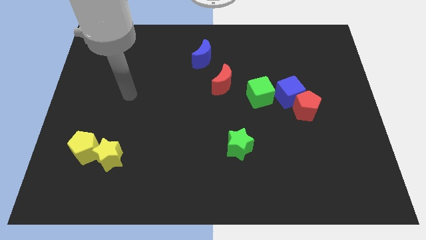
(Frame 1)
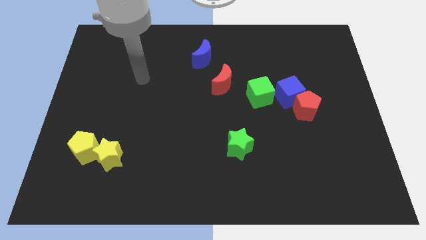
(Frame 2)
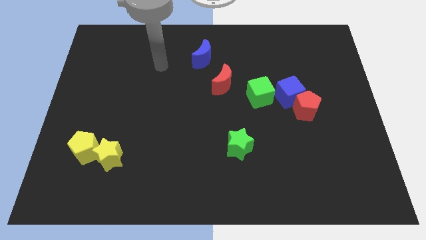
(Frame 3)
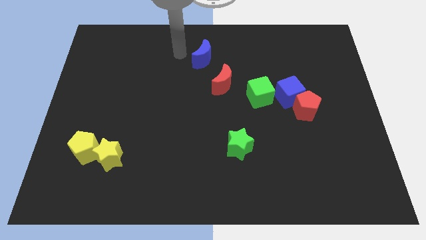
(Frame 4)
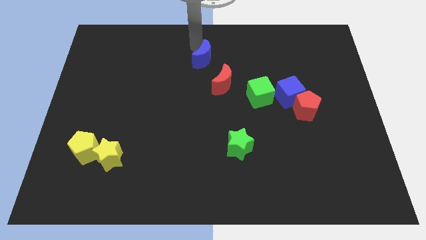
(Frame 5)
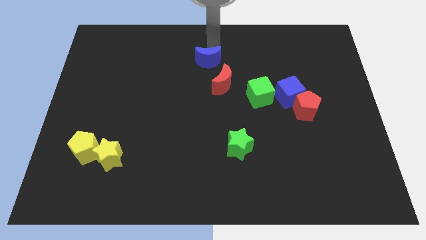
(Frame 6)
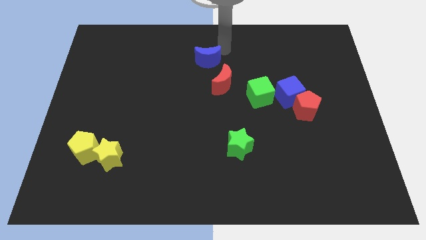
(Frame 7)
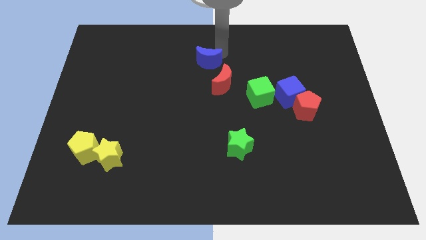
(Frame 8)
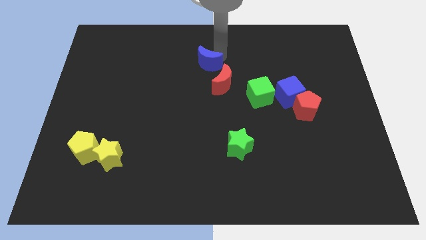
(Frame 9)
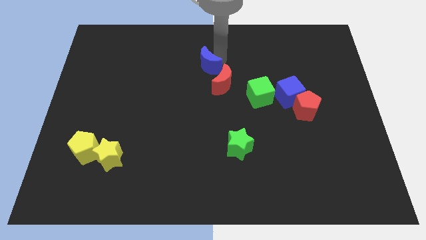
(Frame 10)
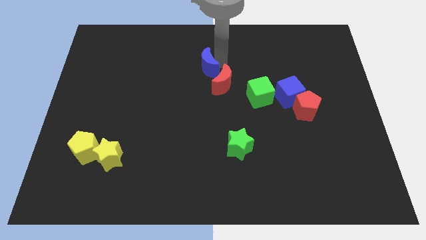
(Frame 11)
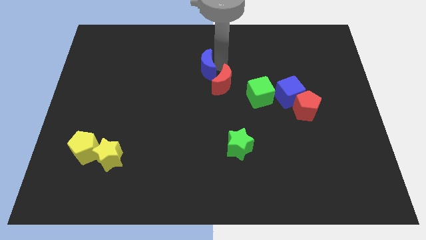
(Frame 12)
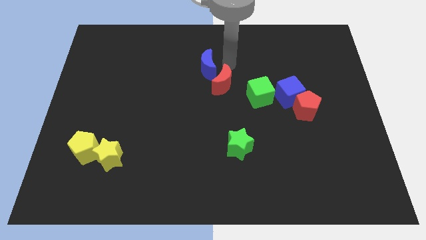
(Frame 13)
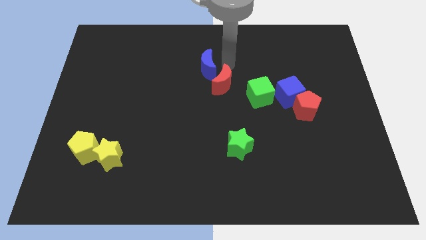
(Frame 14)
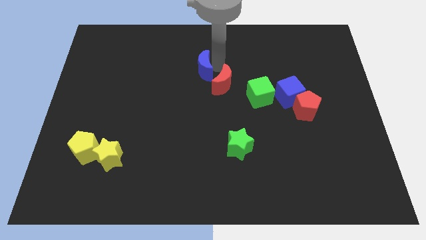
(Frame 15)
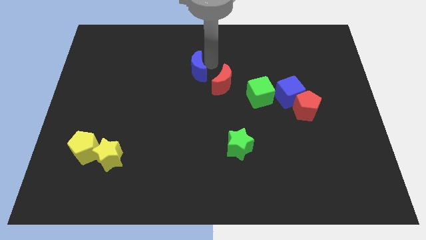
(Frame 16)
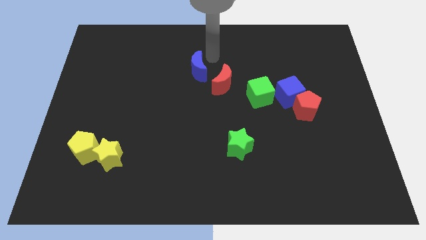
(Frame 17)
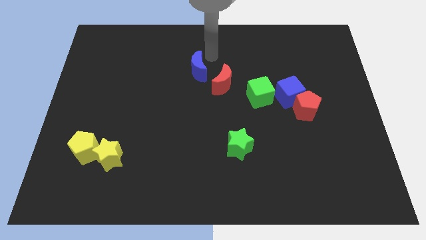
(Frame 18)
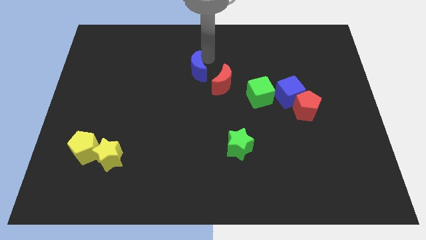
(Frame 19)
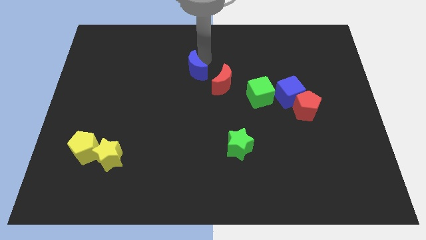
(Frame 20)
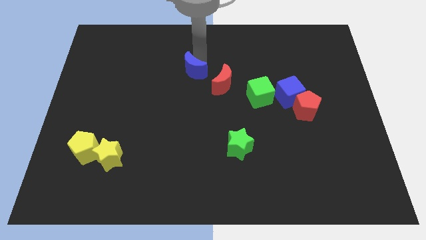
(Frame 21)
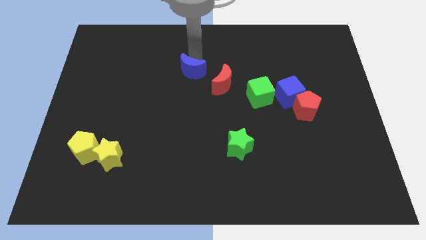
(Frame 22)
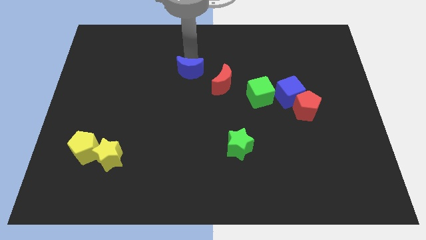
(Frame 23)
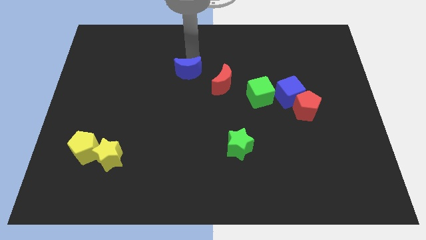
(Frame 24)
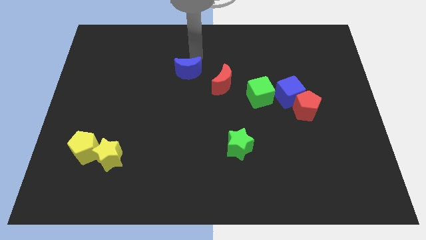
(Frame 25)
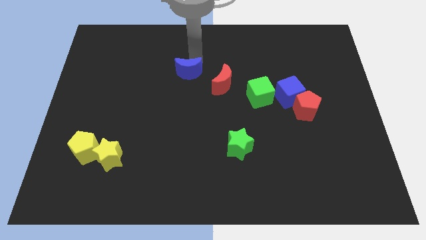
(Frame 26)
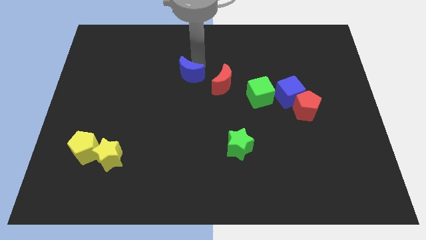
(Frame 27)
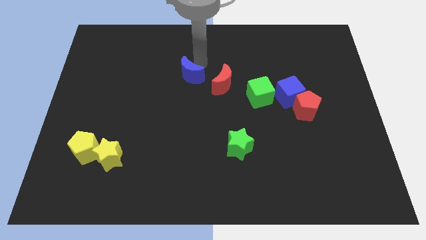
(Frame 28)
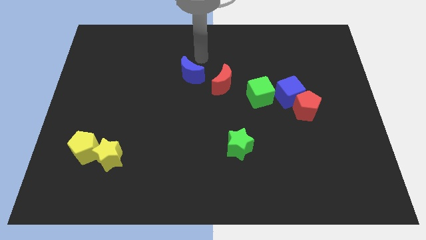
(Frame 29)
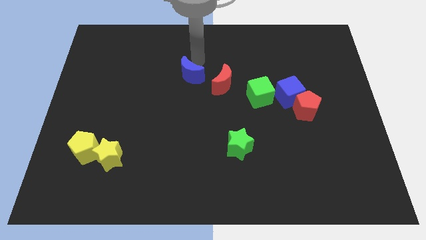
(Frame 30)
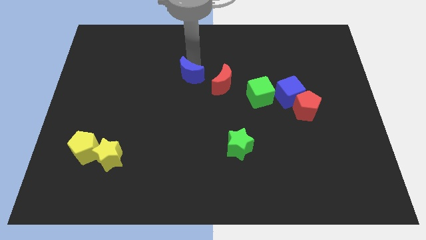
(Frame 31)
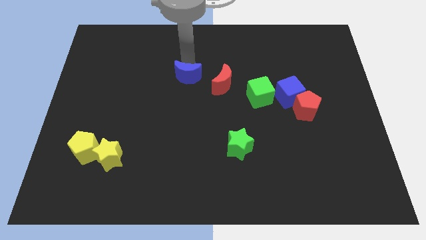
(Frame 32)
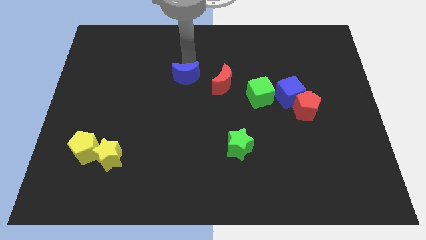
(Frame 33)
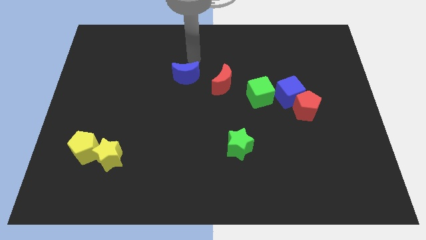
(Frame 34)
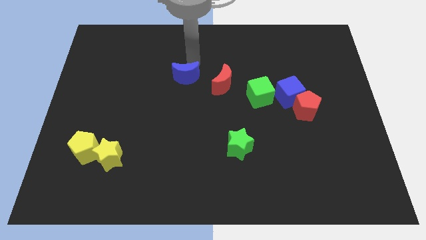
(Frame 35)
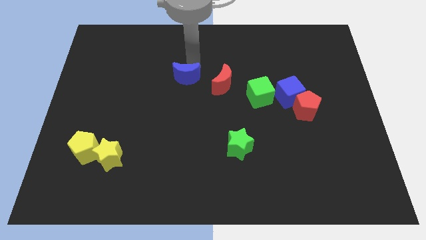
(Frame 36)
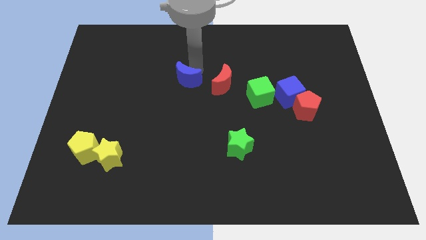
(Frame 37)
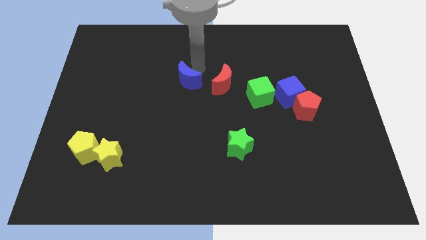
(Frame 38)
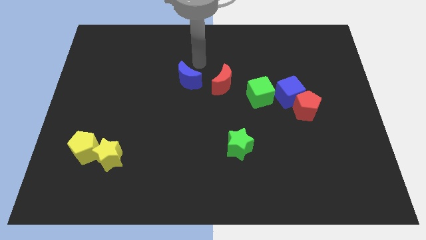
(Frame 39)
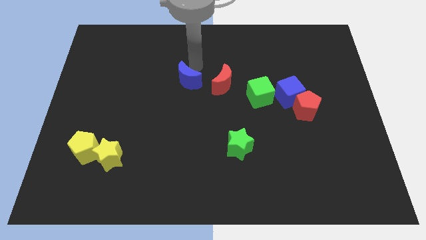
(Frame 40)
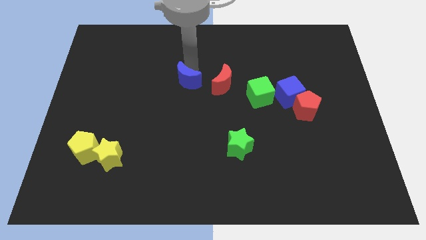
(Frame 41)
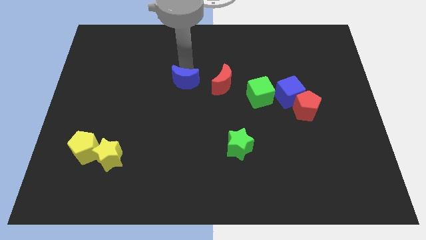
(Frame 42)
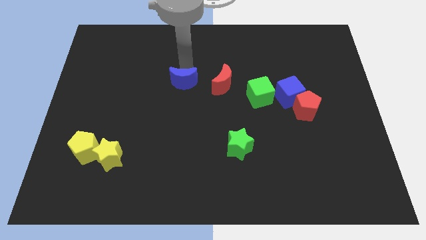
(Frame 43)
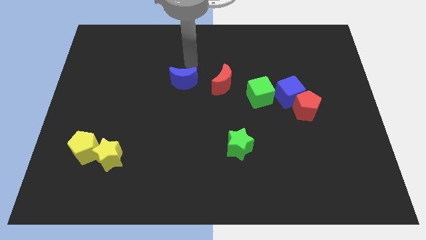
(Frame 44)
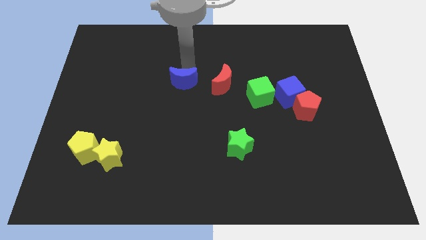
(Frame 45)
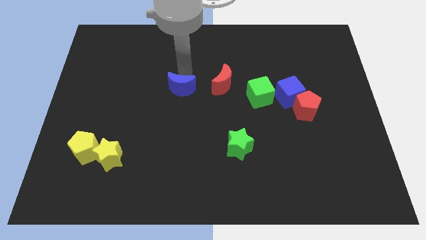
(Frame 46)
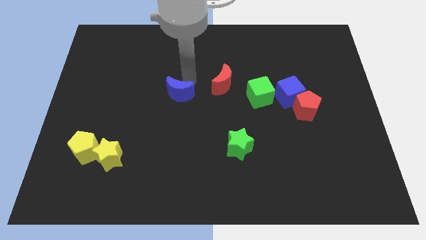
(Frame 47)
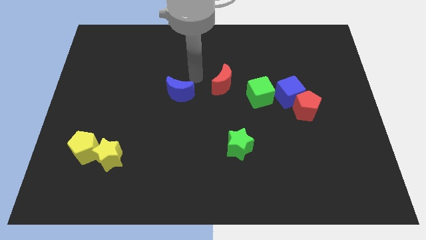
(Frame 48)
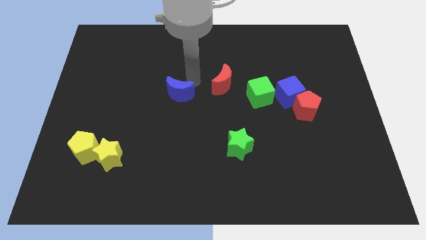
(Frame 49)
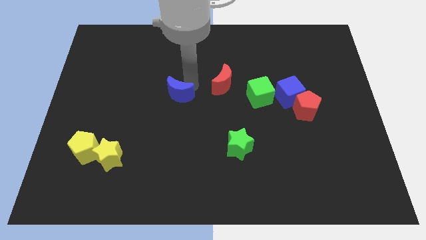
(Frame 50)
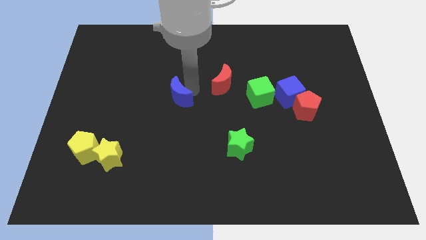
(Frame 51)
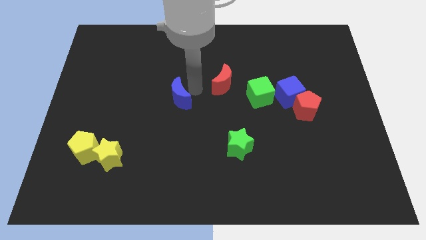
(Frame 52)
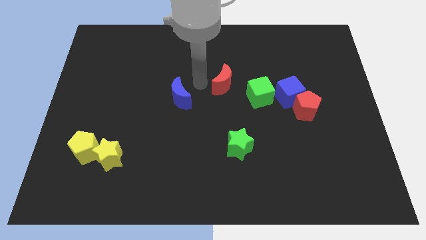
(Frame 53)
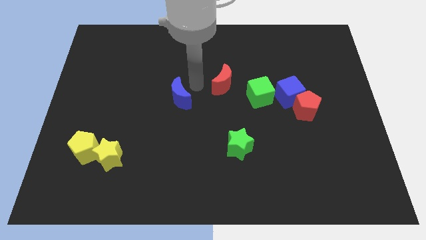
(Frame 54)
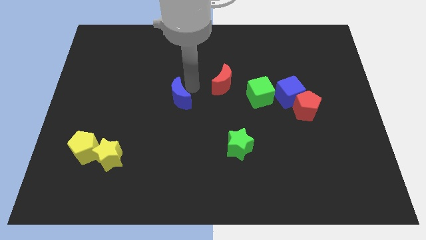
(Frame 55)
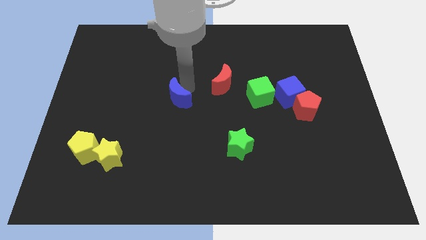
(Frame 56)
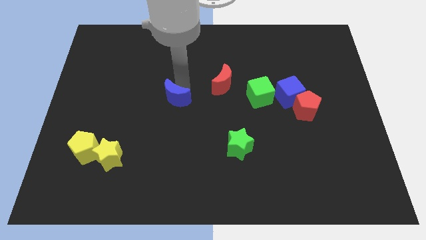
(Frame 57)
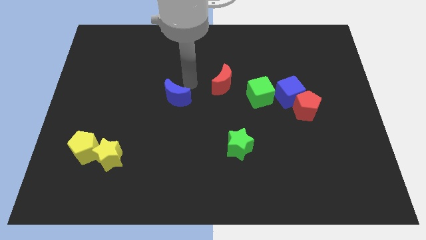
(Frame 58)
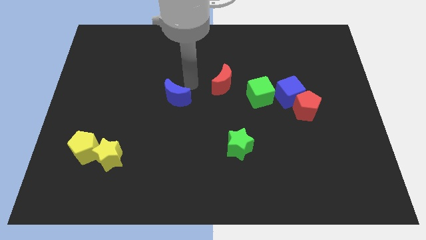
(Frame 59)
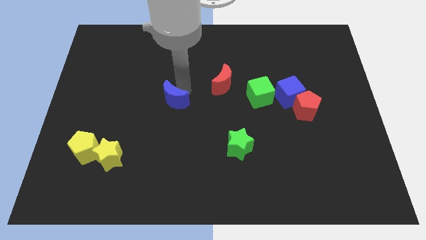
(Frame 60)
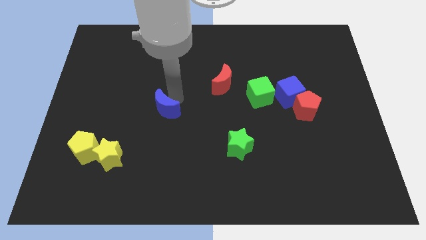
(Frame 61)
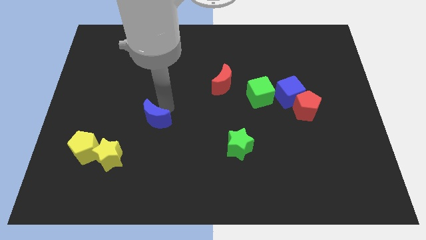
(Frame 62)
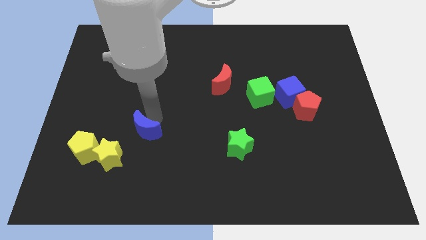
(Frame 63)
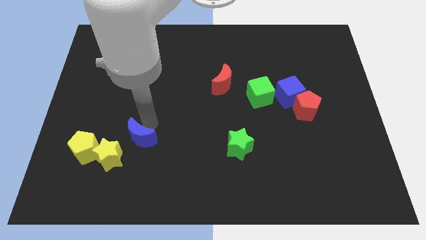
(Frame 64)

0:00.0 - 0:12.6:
push the blue moon to the right side of the yellow pentagon

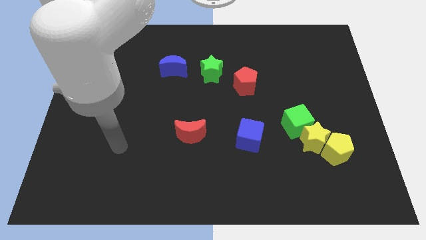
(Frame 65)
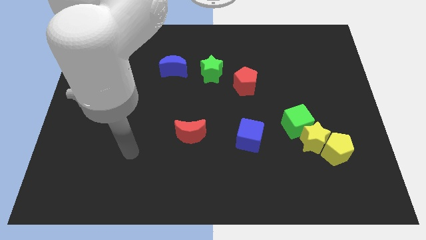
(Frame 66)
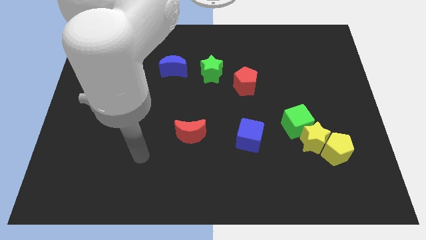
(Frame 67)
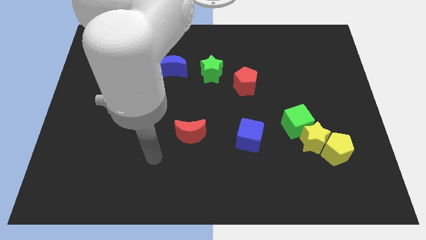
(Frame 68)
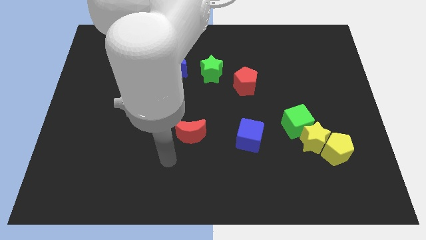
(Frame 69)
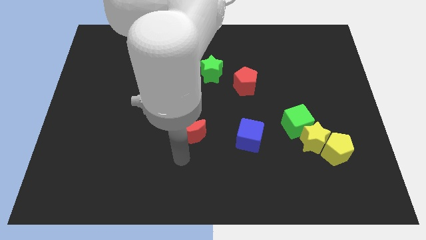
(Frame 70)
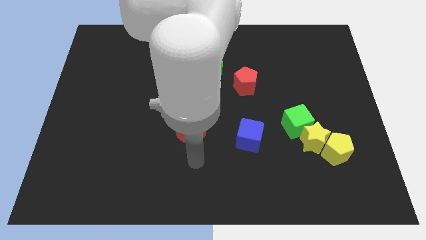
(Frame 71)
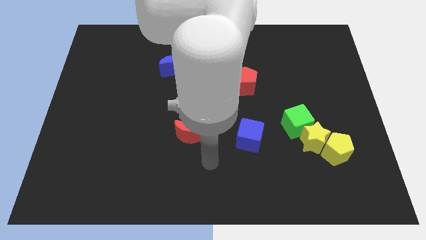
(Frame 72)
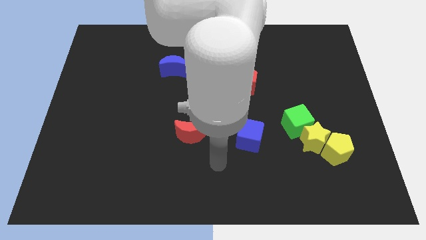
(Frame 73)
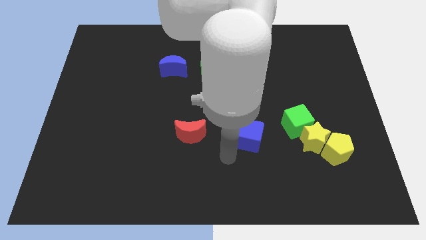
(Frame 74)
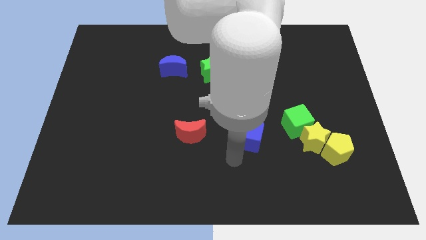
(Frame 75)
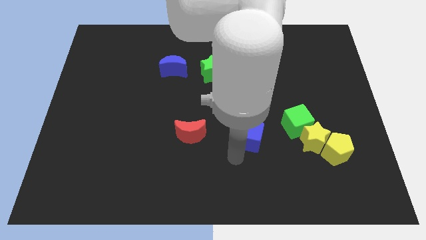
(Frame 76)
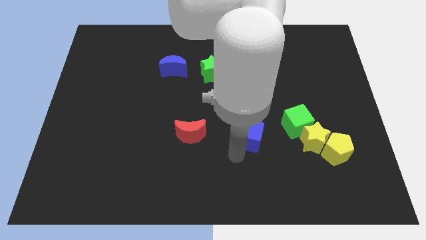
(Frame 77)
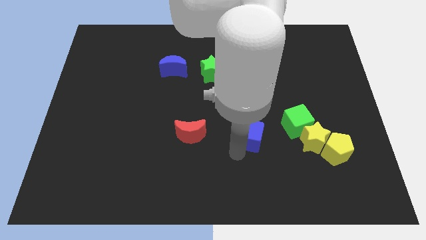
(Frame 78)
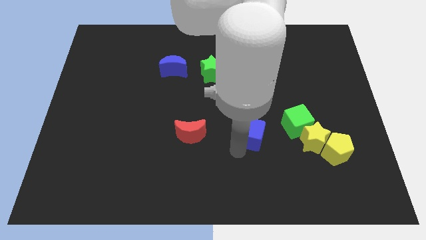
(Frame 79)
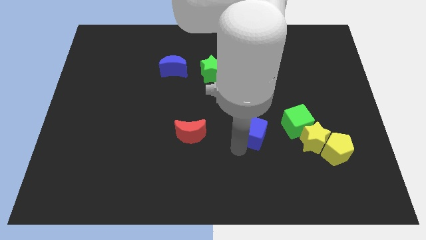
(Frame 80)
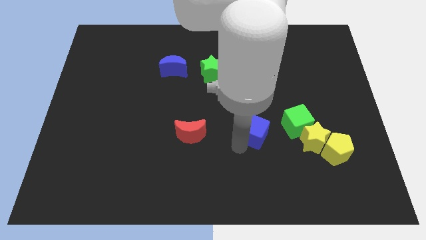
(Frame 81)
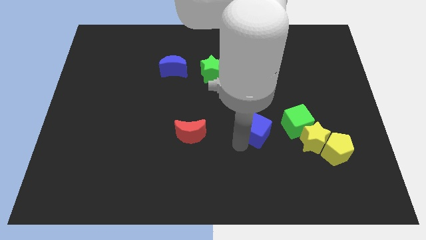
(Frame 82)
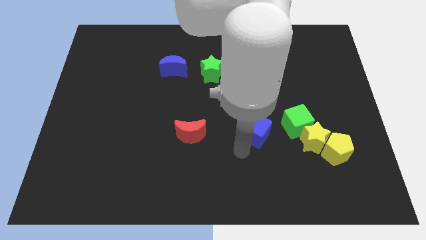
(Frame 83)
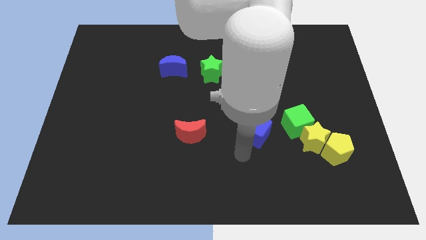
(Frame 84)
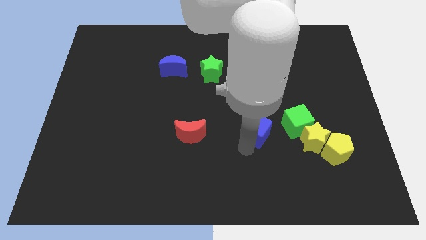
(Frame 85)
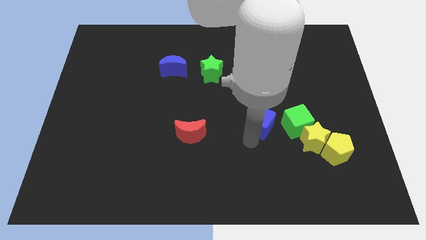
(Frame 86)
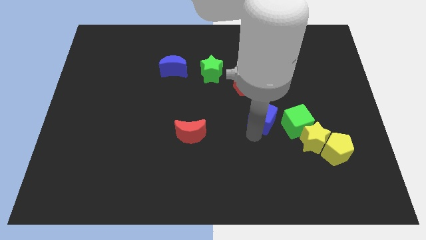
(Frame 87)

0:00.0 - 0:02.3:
put the blue cube diagonally up and to the left of the green cube
